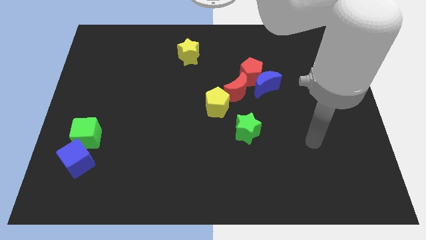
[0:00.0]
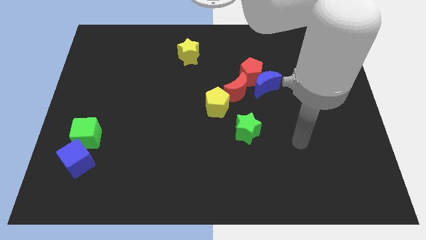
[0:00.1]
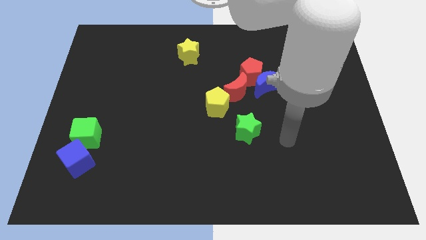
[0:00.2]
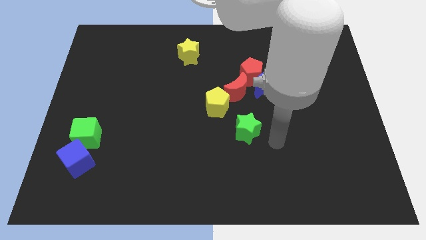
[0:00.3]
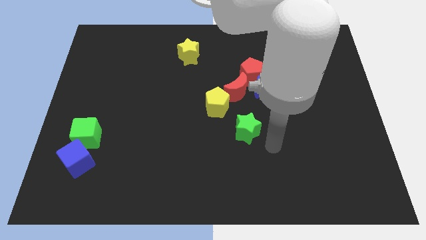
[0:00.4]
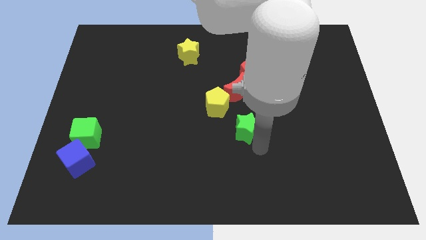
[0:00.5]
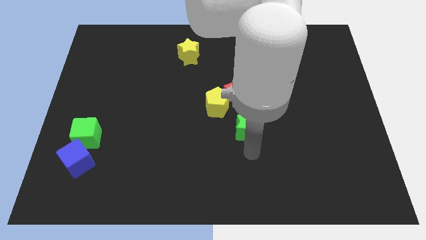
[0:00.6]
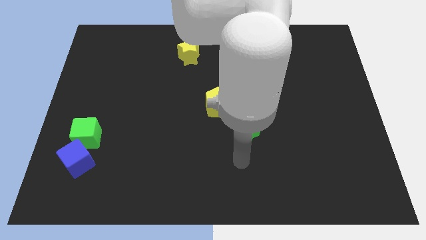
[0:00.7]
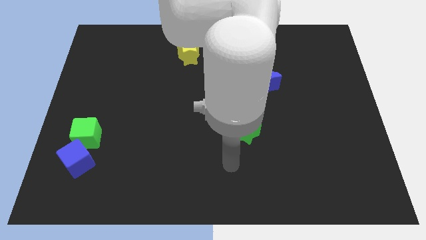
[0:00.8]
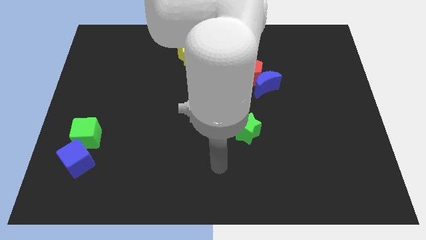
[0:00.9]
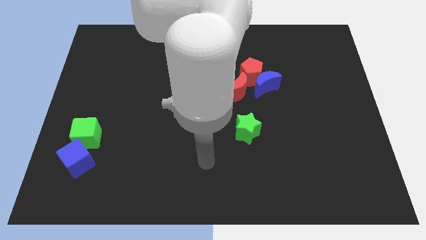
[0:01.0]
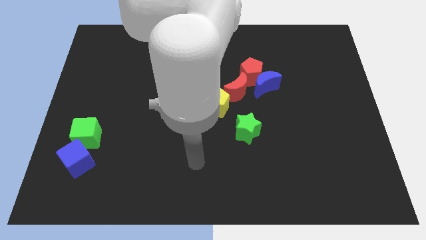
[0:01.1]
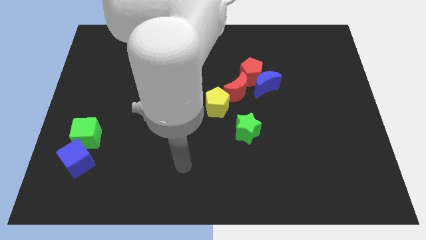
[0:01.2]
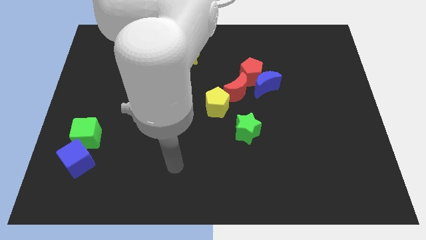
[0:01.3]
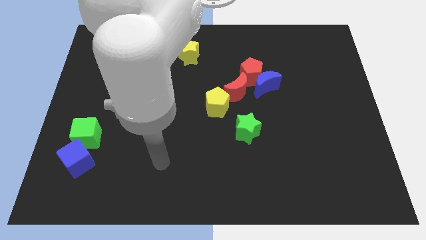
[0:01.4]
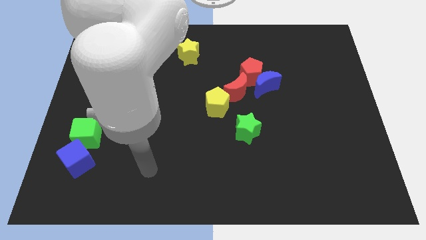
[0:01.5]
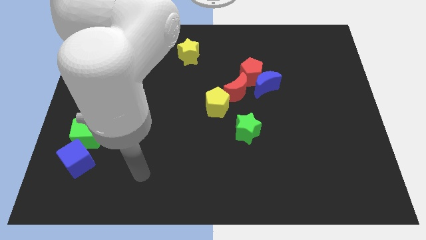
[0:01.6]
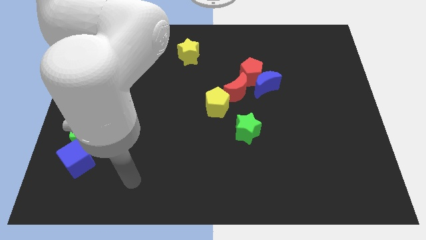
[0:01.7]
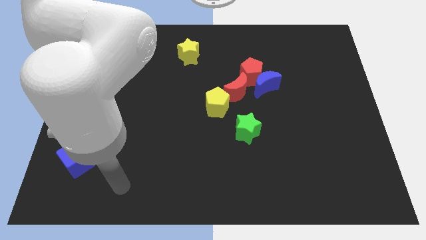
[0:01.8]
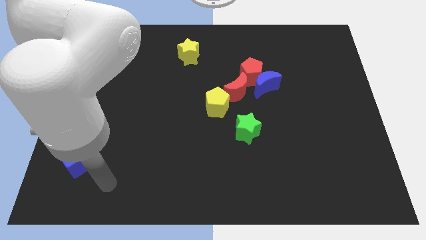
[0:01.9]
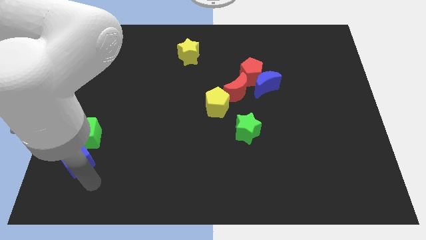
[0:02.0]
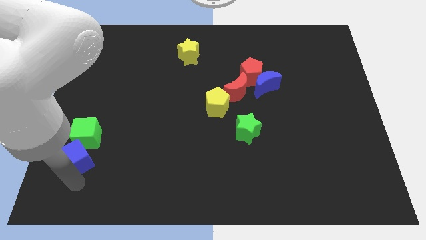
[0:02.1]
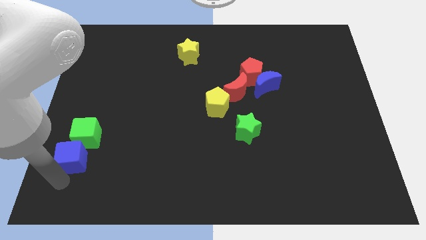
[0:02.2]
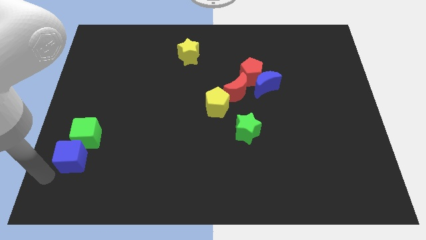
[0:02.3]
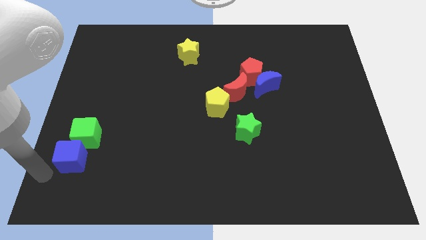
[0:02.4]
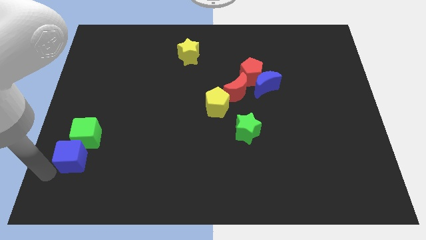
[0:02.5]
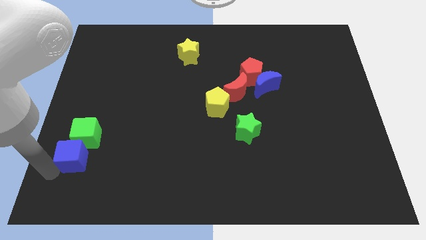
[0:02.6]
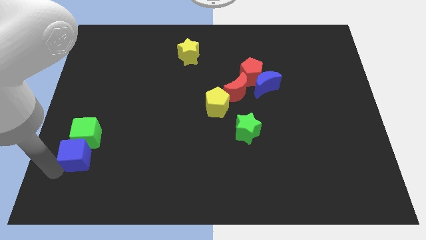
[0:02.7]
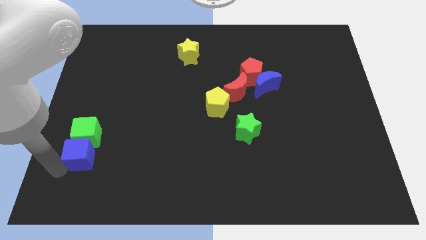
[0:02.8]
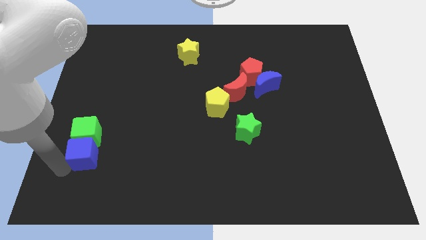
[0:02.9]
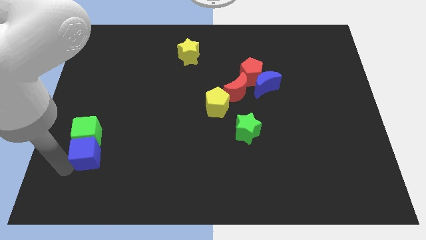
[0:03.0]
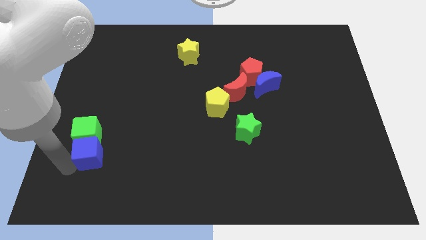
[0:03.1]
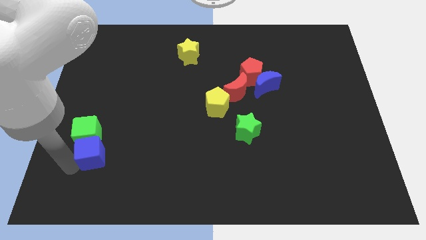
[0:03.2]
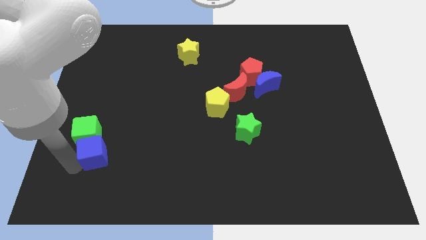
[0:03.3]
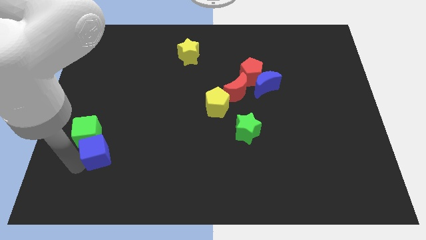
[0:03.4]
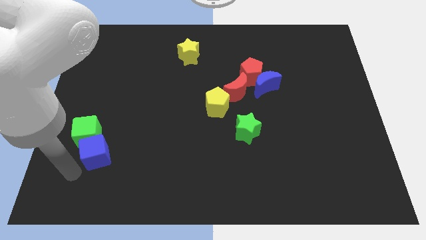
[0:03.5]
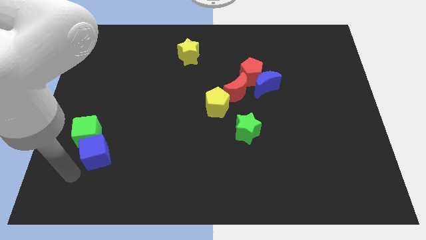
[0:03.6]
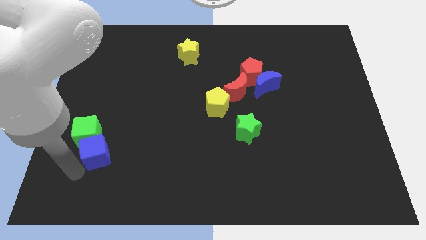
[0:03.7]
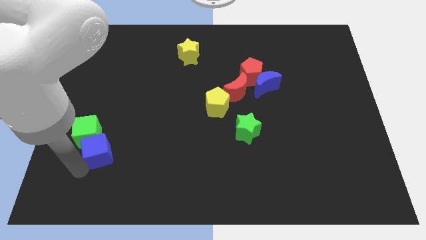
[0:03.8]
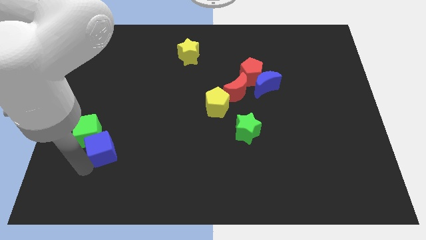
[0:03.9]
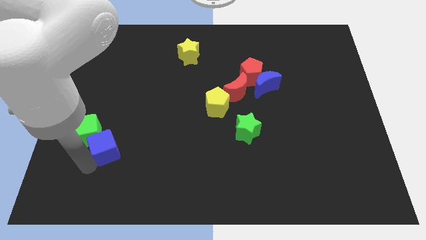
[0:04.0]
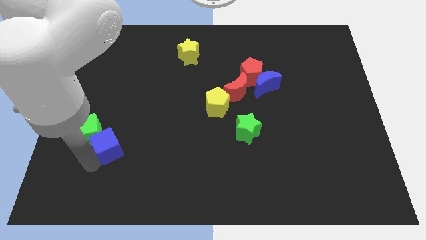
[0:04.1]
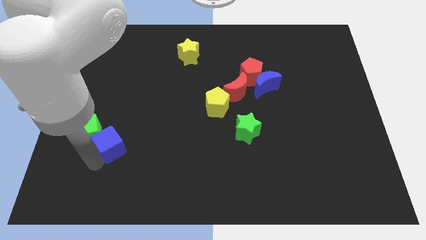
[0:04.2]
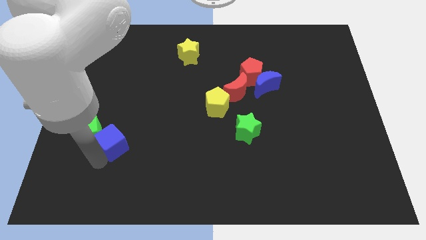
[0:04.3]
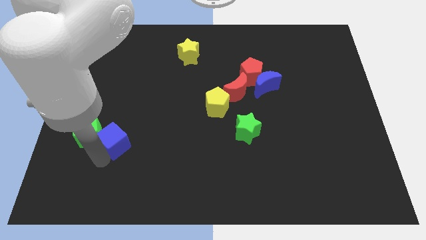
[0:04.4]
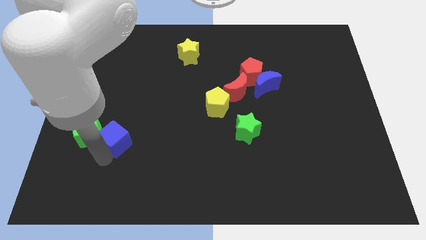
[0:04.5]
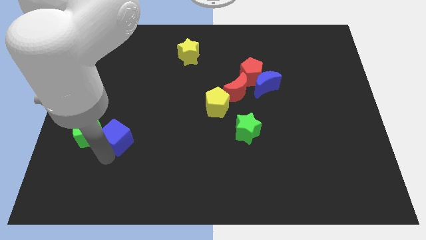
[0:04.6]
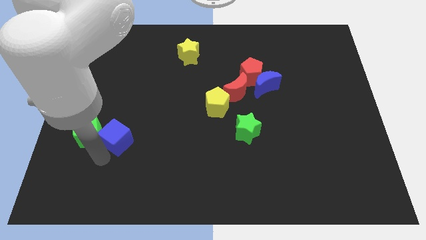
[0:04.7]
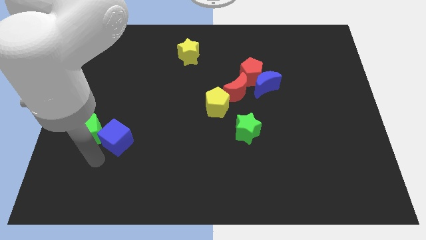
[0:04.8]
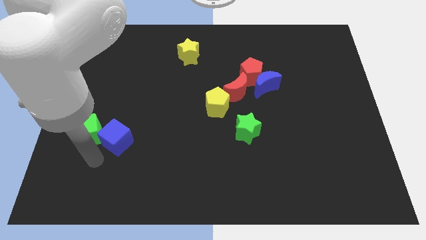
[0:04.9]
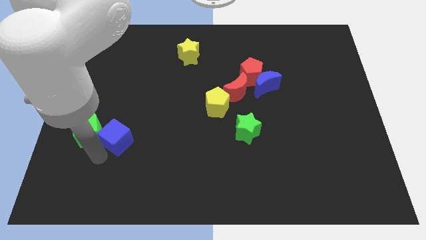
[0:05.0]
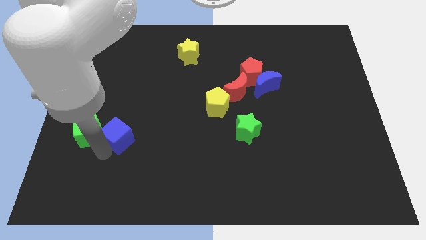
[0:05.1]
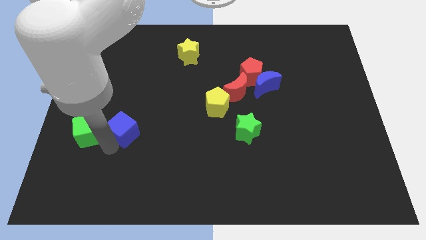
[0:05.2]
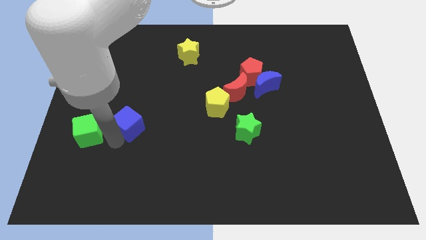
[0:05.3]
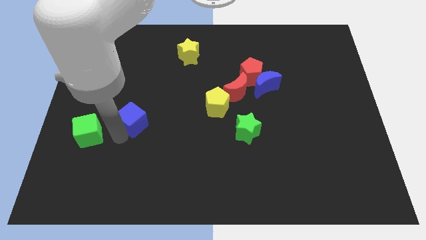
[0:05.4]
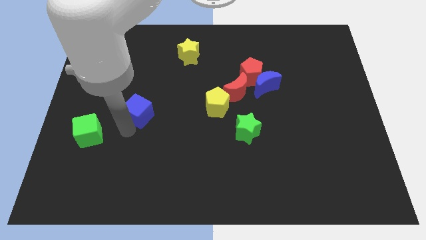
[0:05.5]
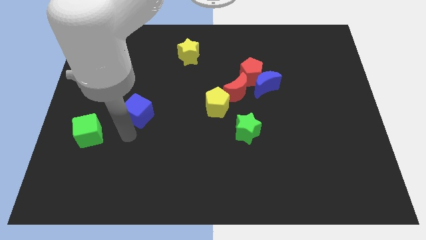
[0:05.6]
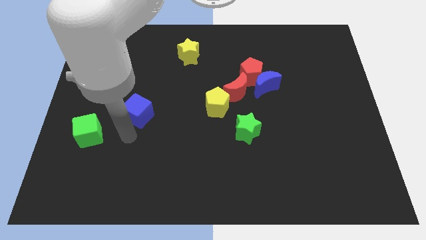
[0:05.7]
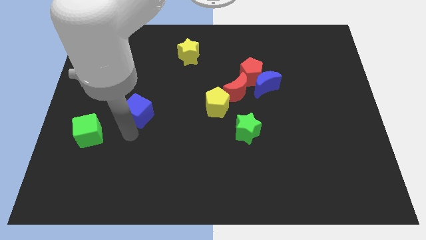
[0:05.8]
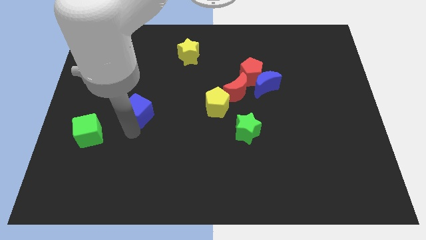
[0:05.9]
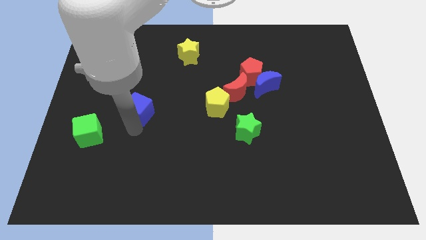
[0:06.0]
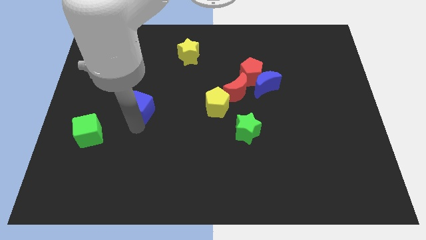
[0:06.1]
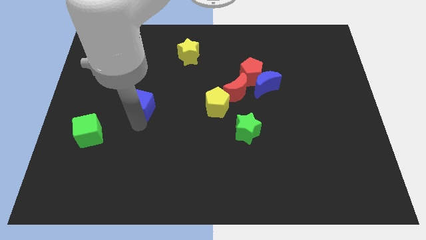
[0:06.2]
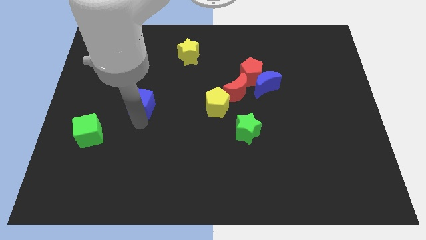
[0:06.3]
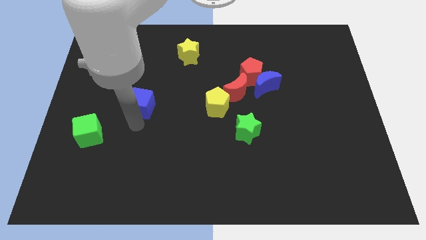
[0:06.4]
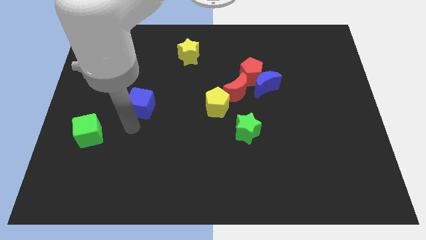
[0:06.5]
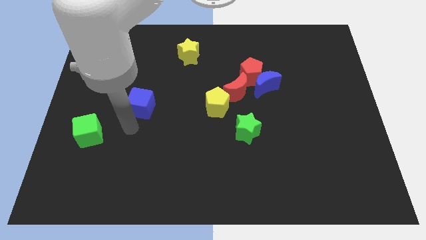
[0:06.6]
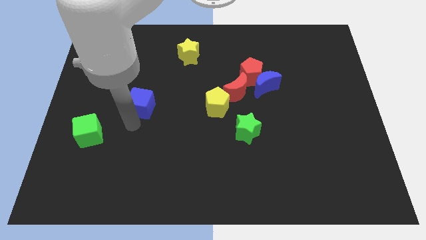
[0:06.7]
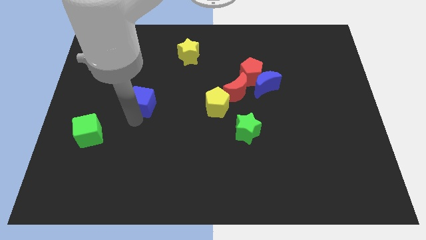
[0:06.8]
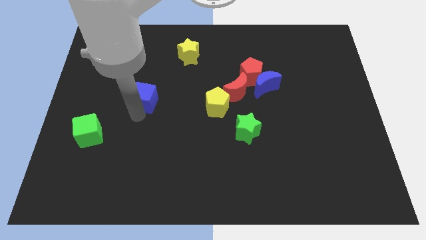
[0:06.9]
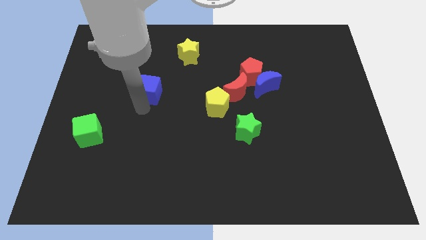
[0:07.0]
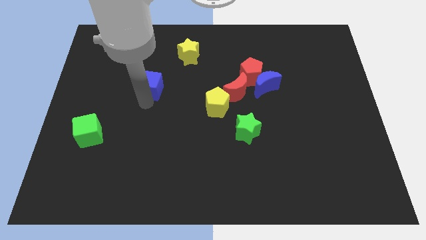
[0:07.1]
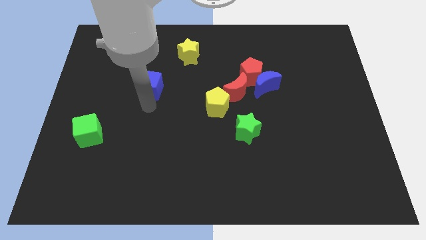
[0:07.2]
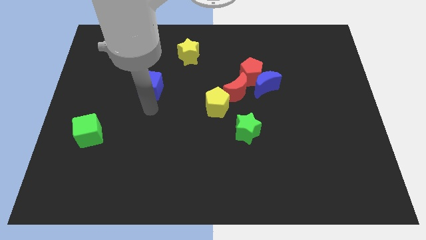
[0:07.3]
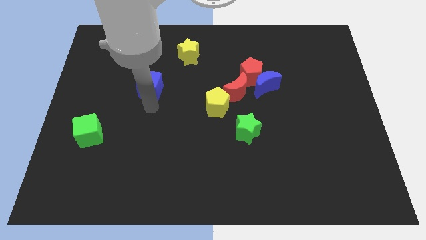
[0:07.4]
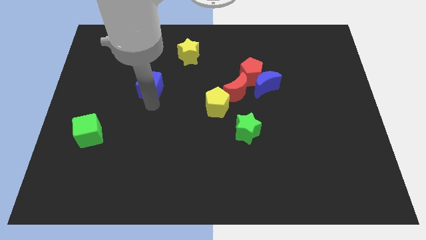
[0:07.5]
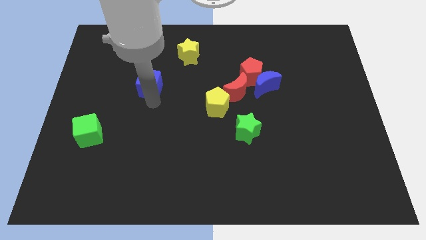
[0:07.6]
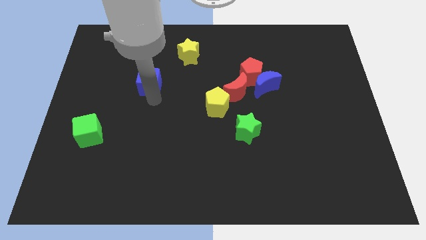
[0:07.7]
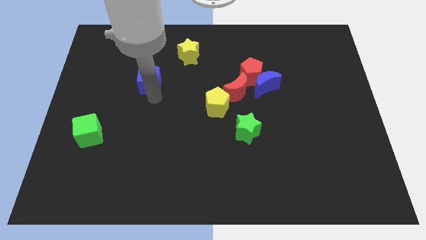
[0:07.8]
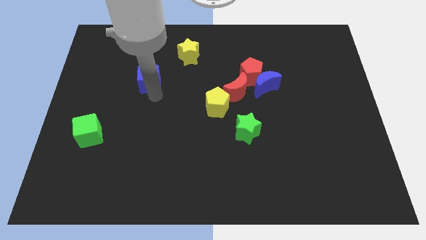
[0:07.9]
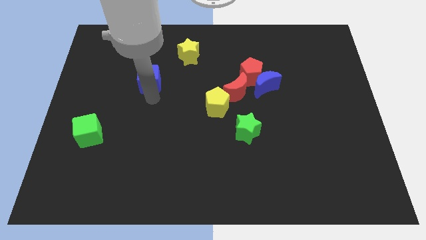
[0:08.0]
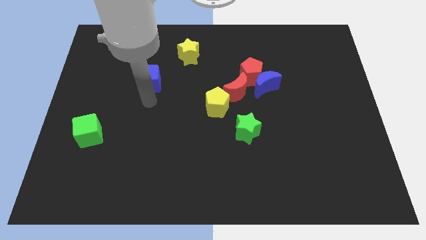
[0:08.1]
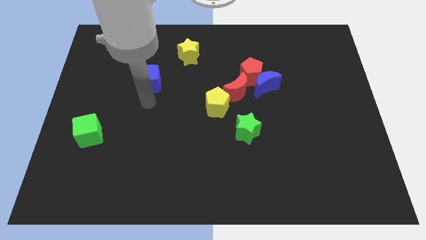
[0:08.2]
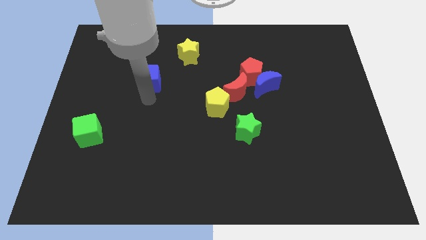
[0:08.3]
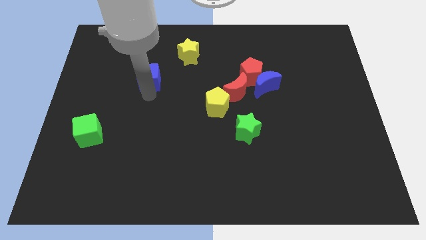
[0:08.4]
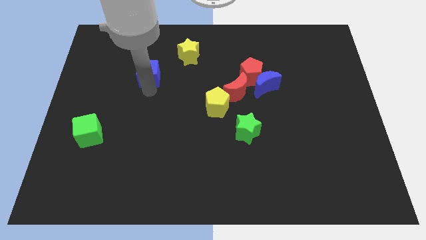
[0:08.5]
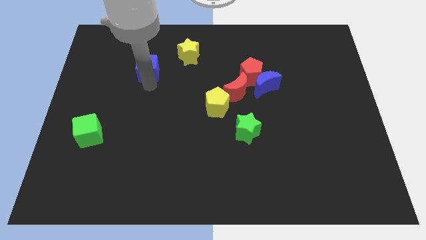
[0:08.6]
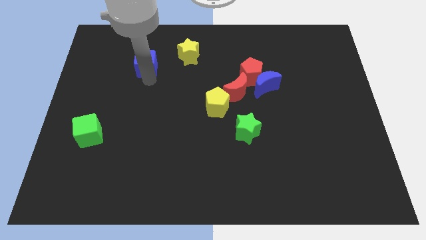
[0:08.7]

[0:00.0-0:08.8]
push the blue cube just left of the yellow star
